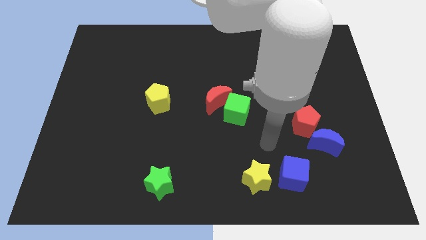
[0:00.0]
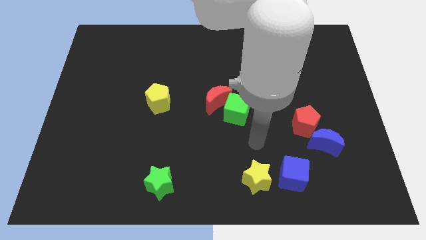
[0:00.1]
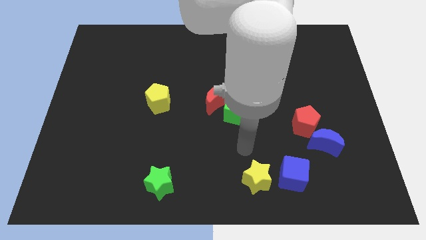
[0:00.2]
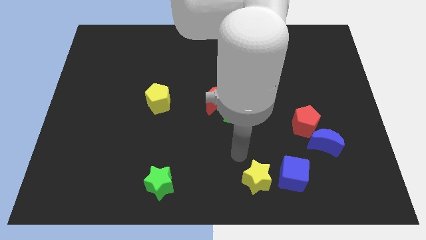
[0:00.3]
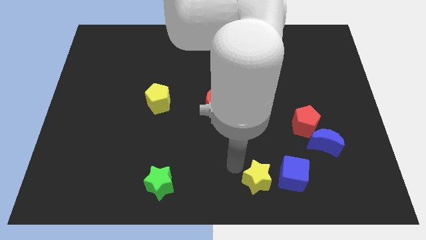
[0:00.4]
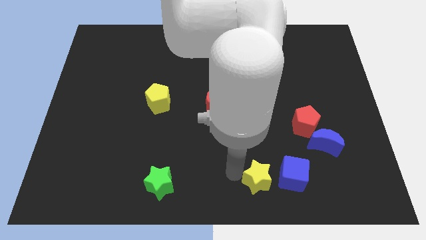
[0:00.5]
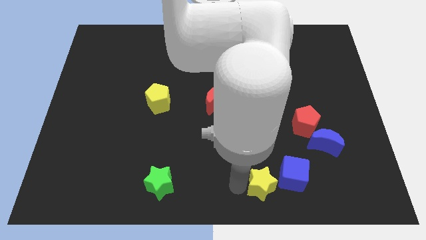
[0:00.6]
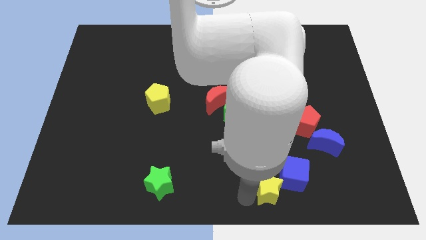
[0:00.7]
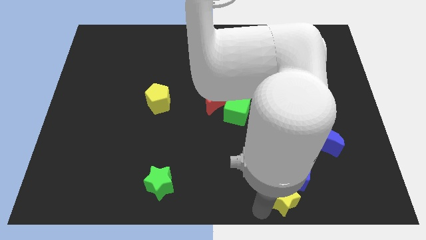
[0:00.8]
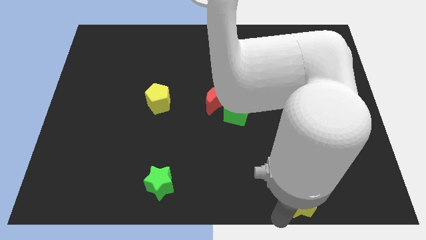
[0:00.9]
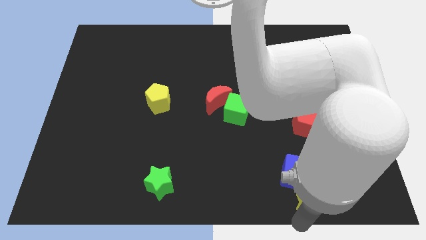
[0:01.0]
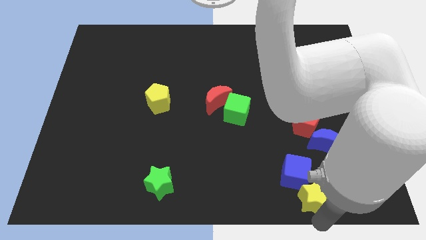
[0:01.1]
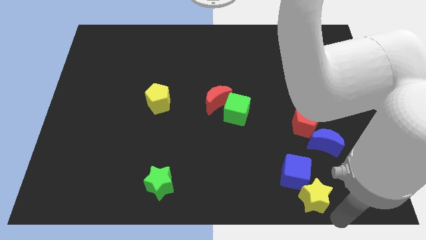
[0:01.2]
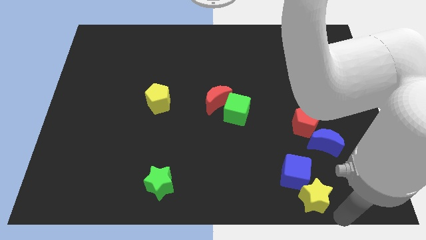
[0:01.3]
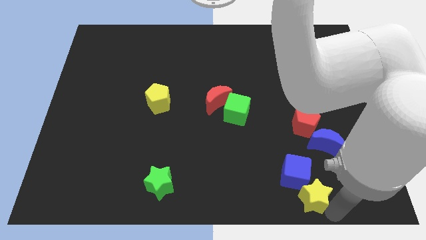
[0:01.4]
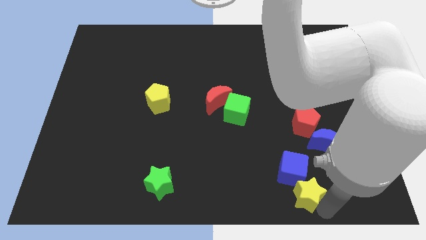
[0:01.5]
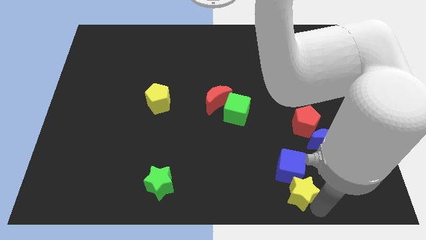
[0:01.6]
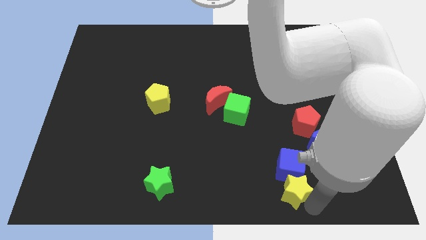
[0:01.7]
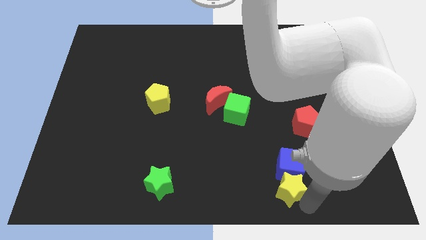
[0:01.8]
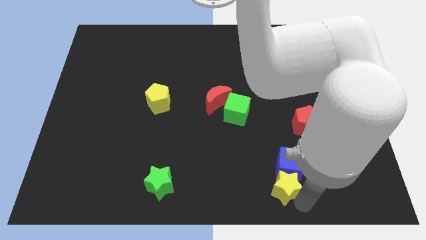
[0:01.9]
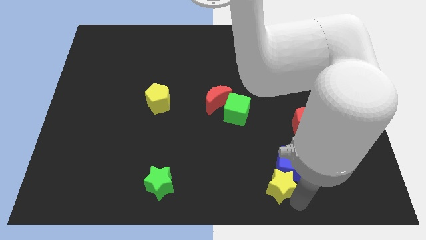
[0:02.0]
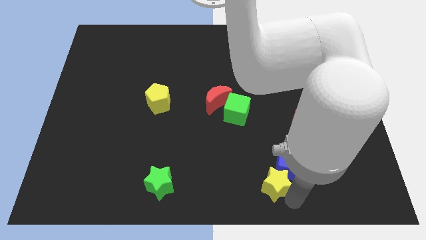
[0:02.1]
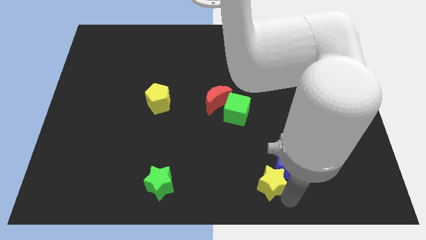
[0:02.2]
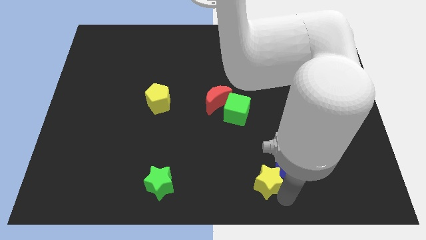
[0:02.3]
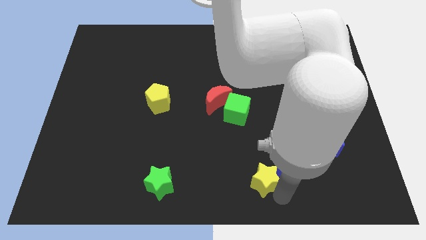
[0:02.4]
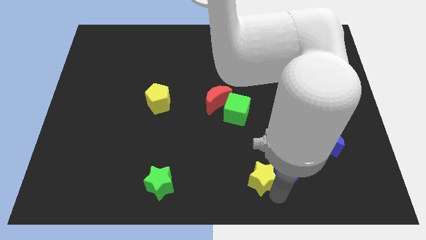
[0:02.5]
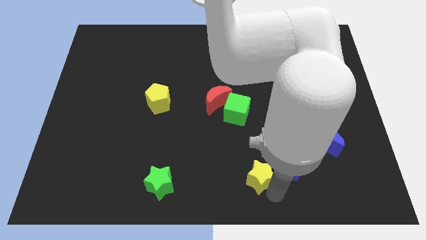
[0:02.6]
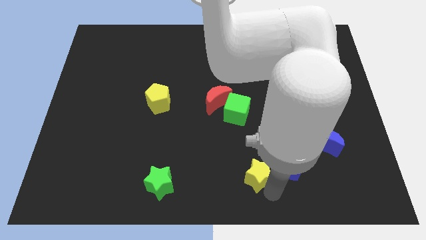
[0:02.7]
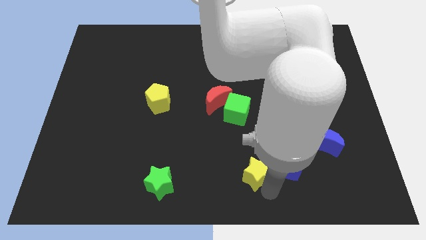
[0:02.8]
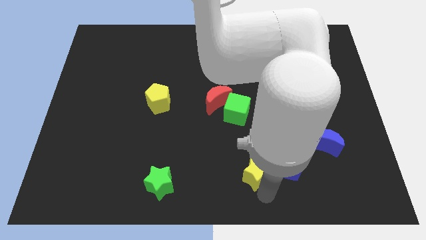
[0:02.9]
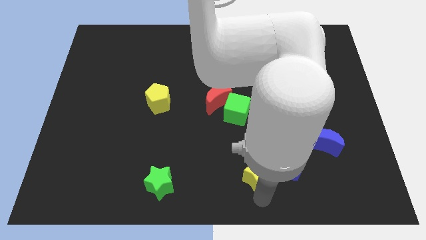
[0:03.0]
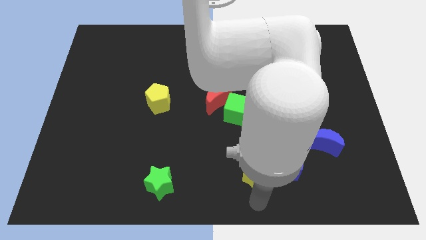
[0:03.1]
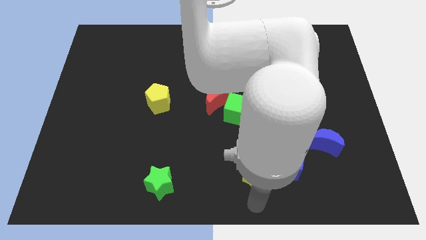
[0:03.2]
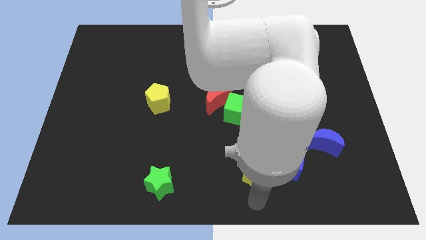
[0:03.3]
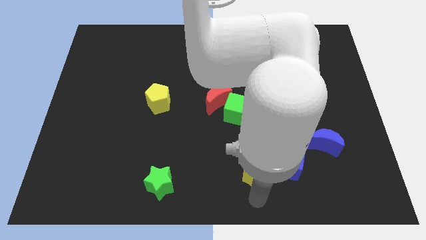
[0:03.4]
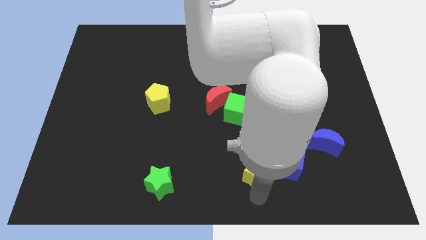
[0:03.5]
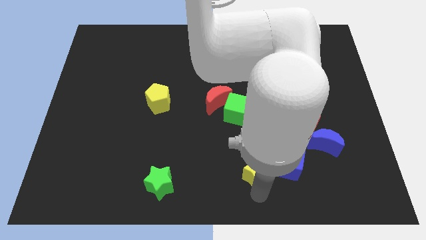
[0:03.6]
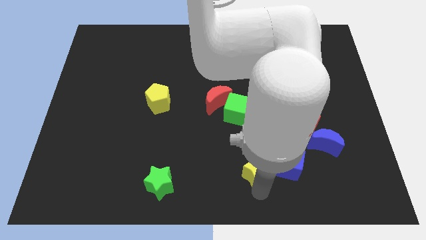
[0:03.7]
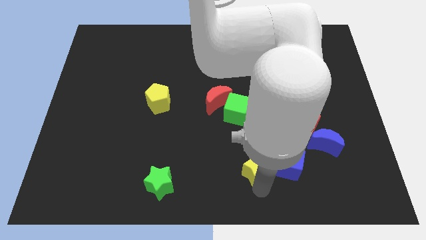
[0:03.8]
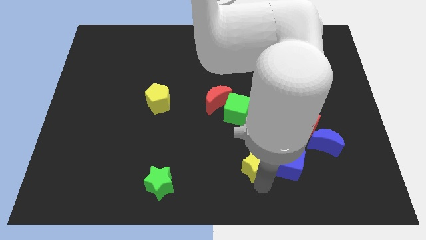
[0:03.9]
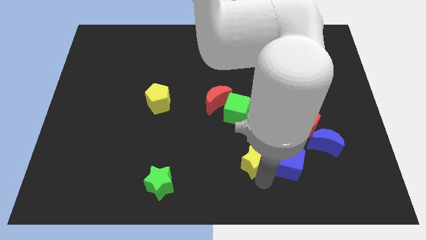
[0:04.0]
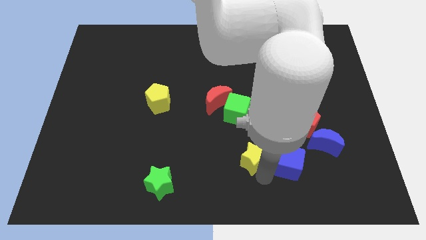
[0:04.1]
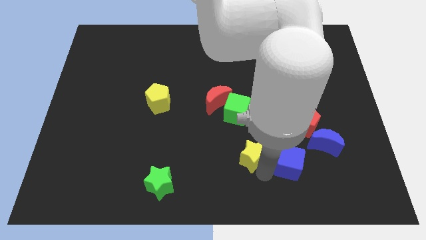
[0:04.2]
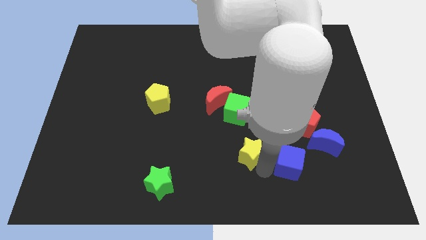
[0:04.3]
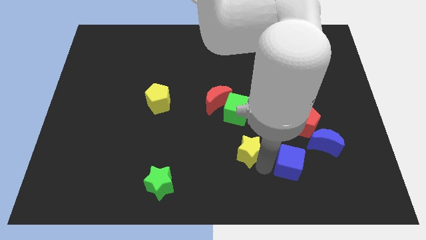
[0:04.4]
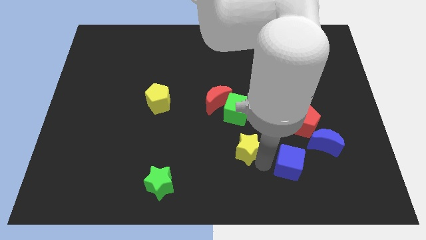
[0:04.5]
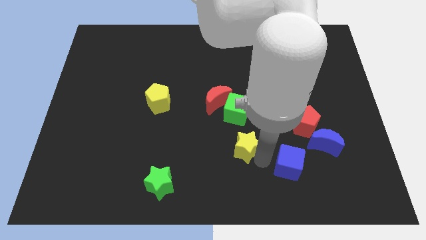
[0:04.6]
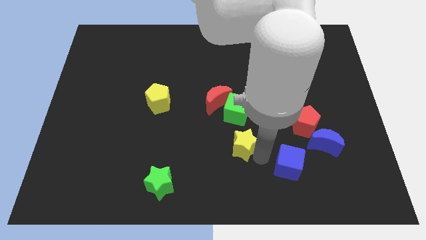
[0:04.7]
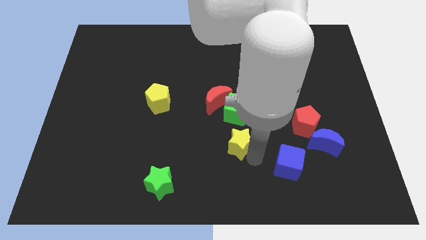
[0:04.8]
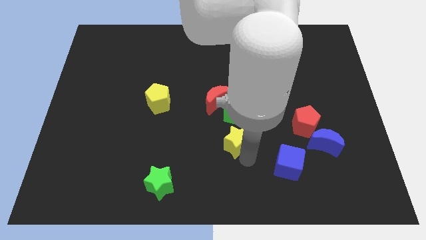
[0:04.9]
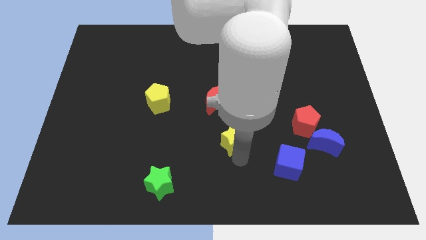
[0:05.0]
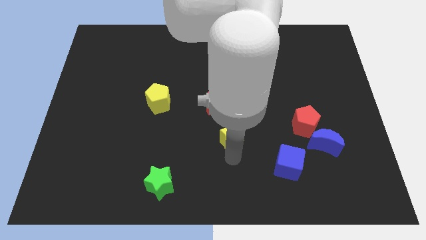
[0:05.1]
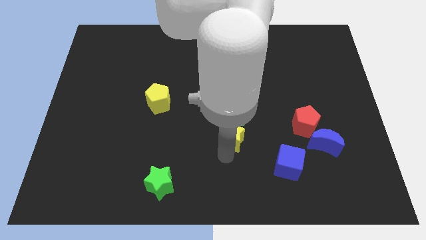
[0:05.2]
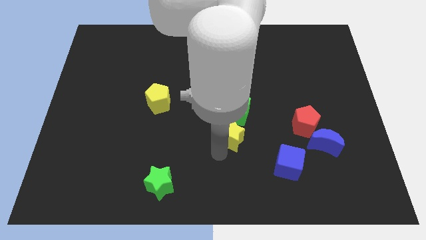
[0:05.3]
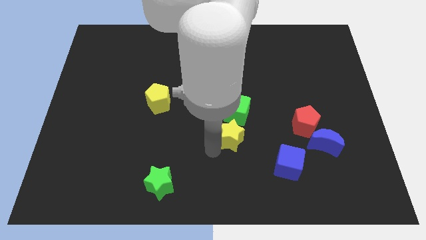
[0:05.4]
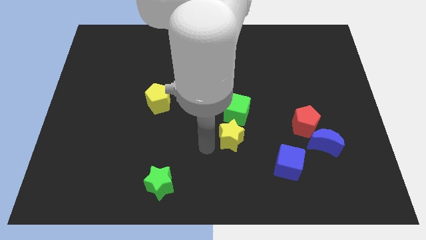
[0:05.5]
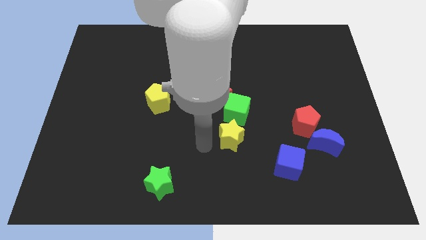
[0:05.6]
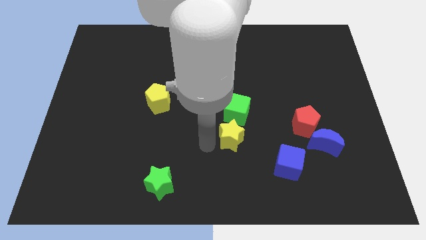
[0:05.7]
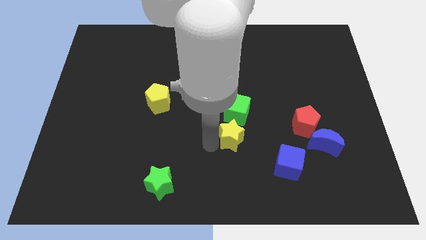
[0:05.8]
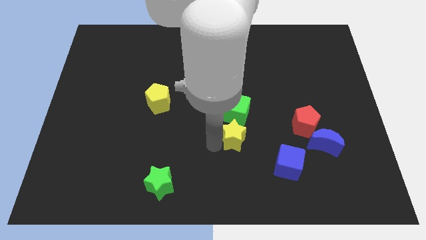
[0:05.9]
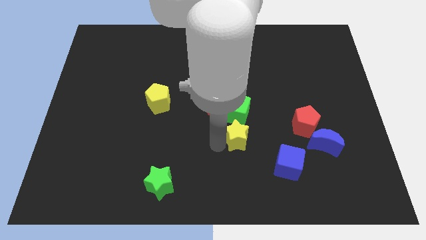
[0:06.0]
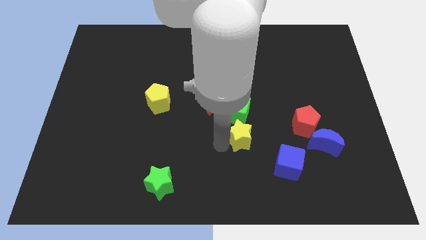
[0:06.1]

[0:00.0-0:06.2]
put the yellow star to the bottom right side of the green cube

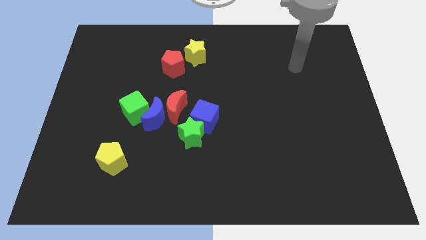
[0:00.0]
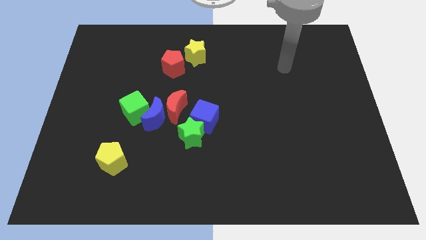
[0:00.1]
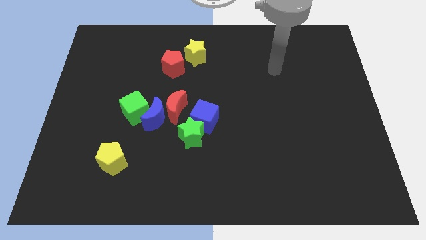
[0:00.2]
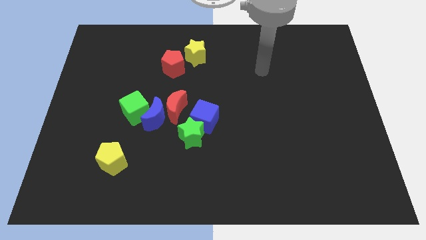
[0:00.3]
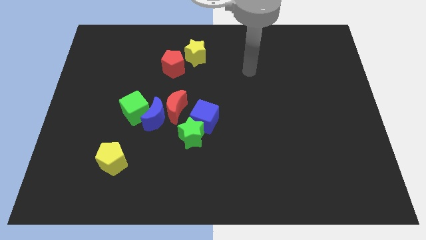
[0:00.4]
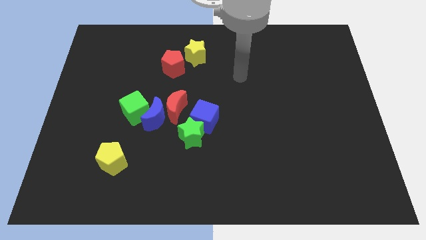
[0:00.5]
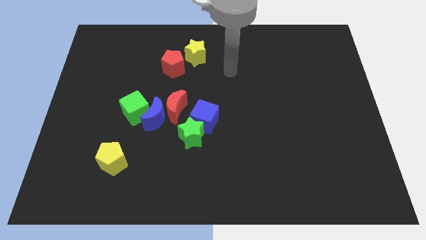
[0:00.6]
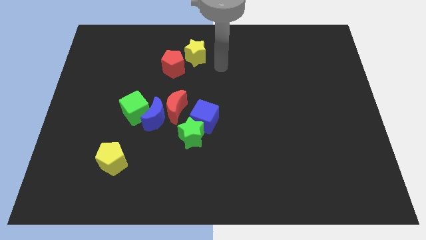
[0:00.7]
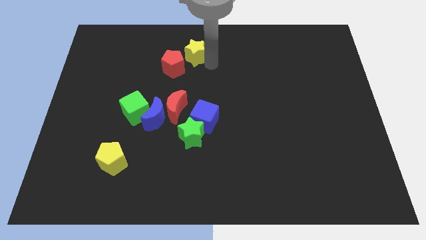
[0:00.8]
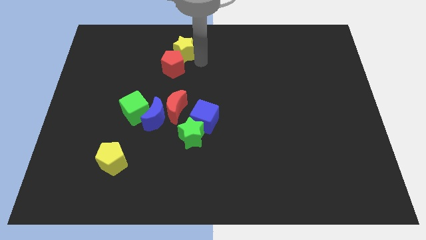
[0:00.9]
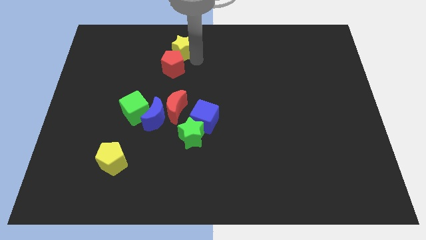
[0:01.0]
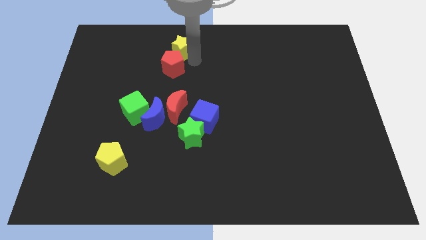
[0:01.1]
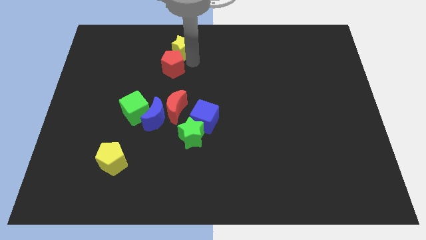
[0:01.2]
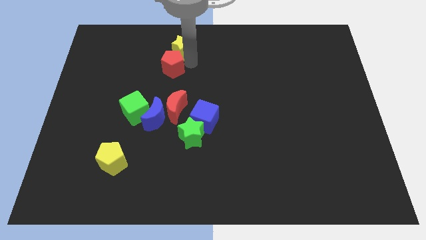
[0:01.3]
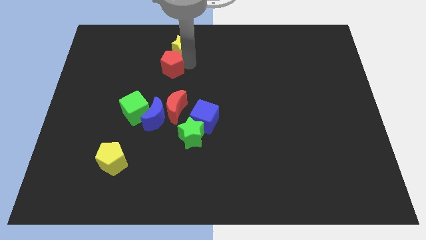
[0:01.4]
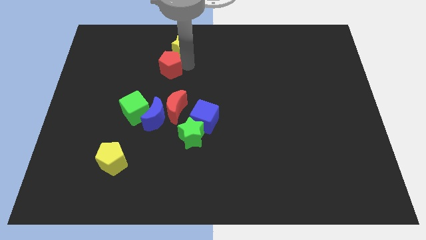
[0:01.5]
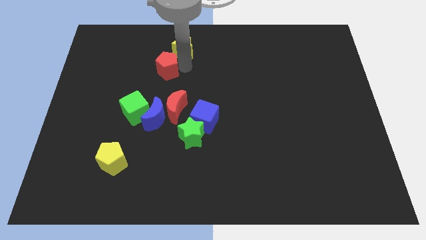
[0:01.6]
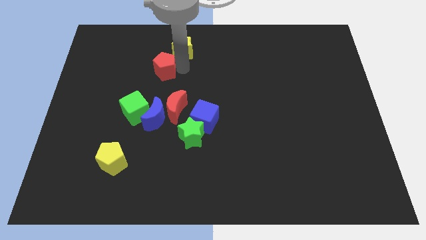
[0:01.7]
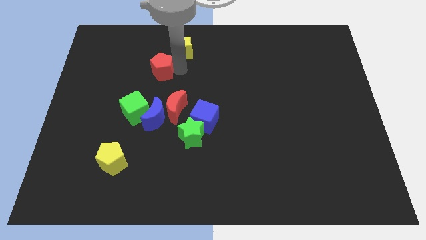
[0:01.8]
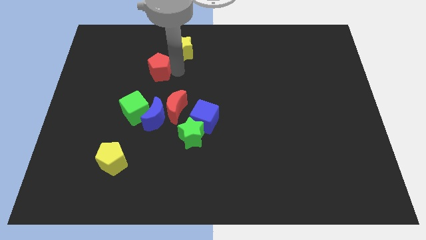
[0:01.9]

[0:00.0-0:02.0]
slide the red pentagon above the green cube

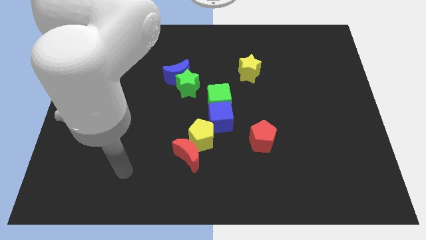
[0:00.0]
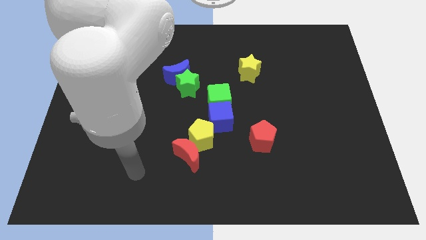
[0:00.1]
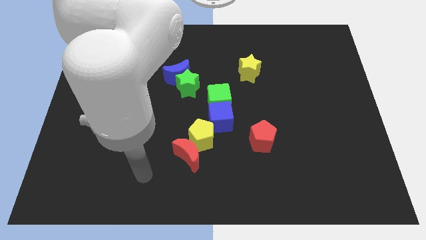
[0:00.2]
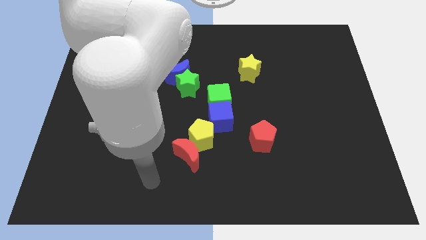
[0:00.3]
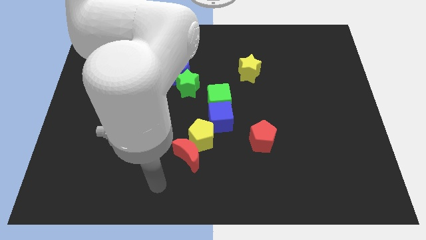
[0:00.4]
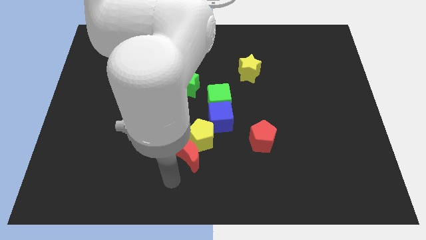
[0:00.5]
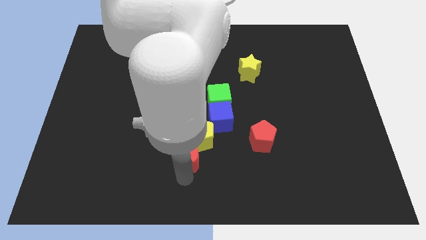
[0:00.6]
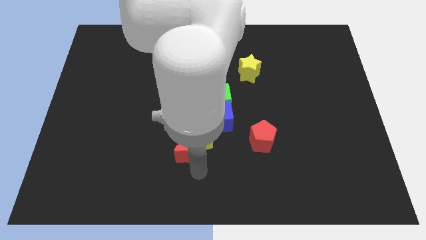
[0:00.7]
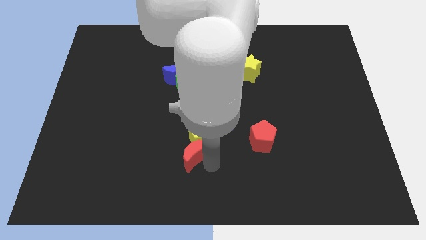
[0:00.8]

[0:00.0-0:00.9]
move the red pentagon to the right side of the red moon
